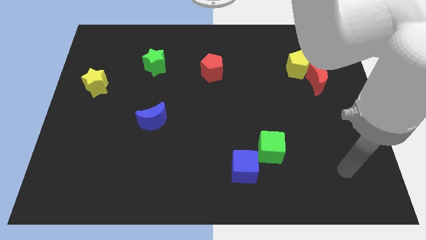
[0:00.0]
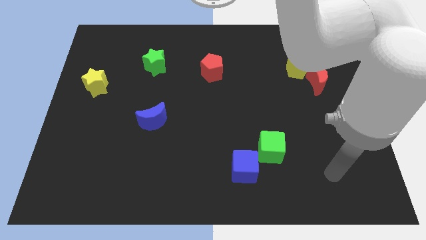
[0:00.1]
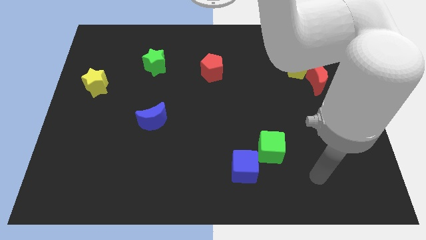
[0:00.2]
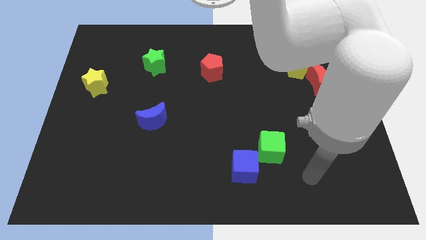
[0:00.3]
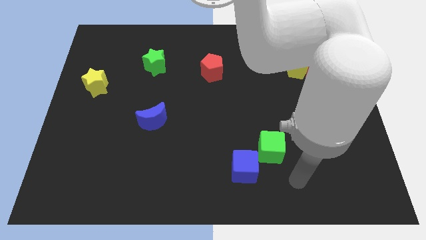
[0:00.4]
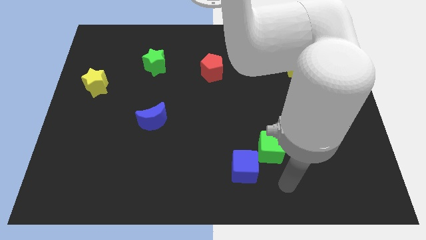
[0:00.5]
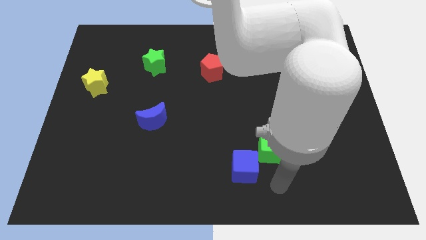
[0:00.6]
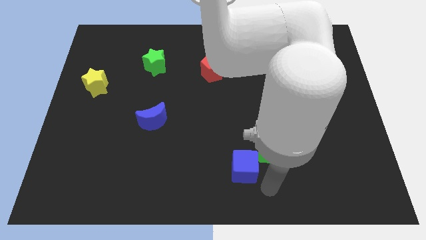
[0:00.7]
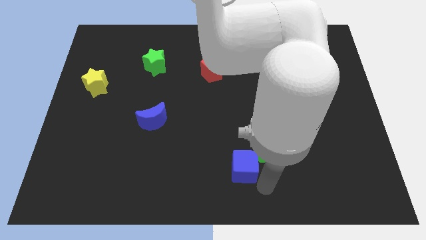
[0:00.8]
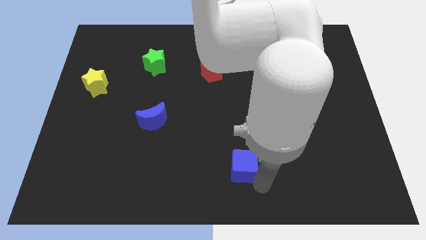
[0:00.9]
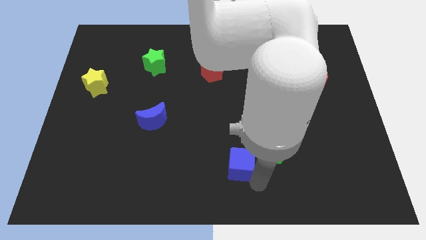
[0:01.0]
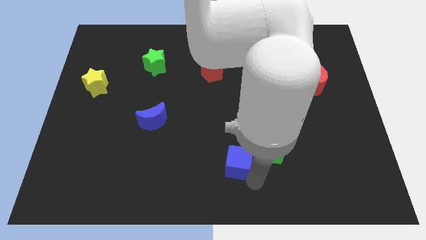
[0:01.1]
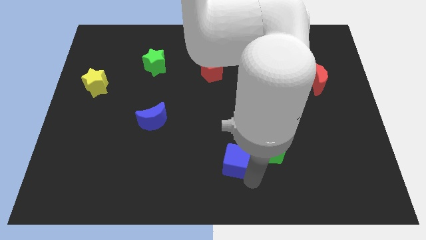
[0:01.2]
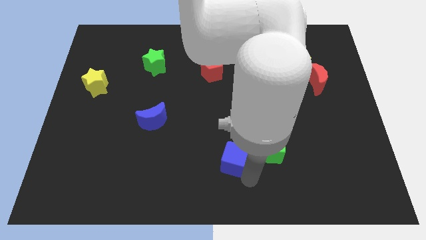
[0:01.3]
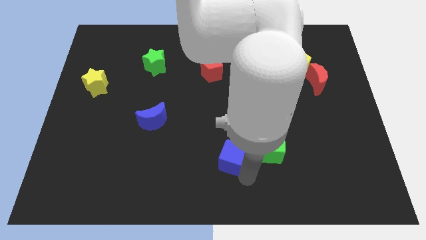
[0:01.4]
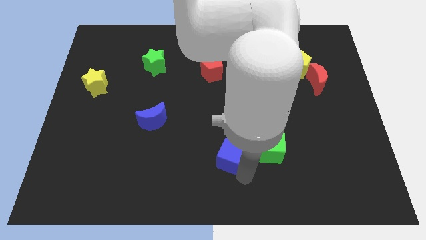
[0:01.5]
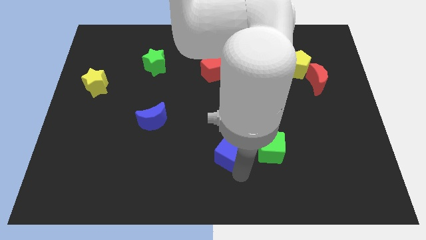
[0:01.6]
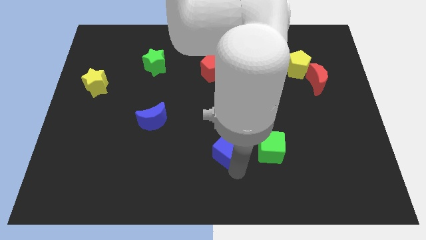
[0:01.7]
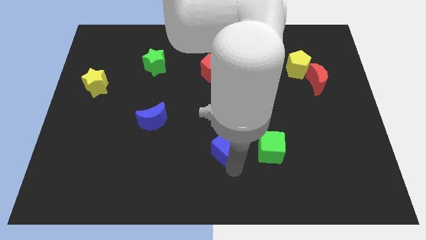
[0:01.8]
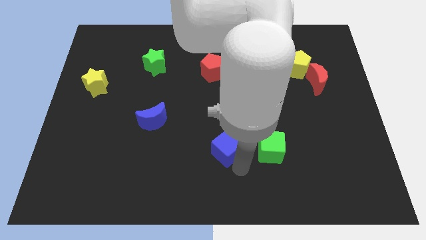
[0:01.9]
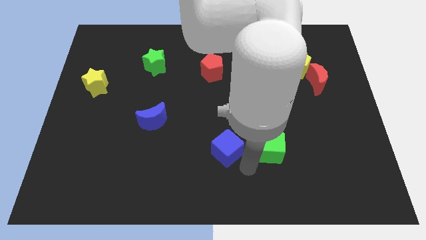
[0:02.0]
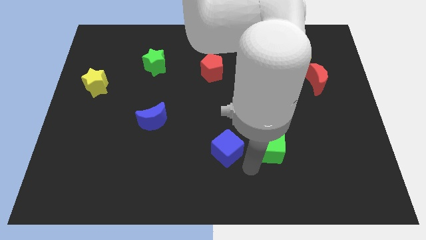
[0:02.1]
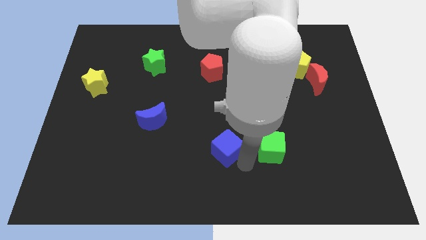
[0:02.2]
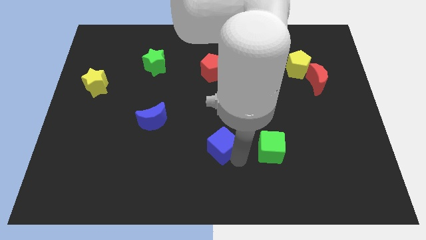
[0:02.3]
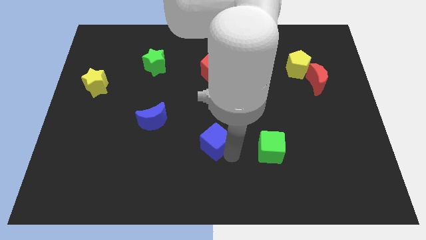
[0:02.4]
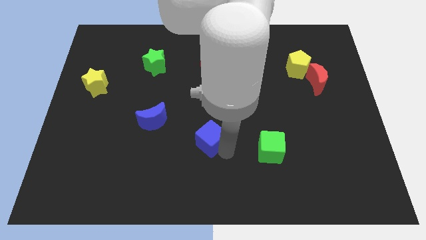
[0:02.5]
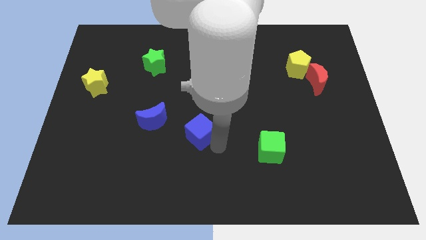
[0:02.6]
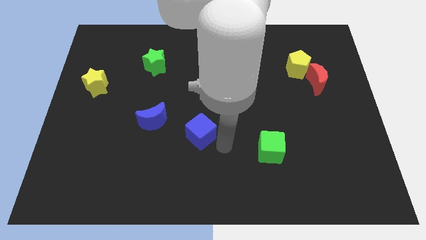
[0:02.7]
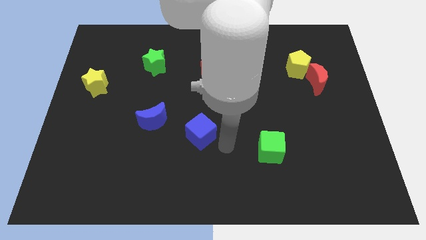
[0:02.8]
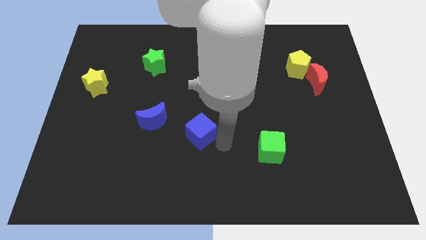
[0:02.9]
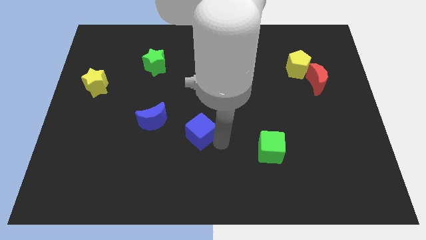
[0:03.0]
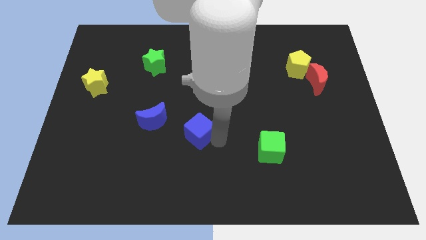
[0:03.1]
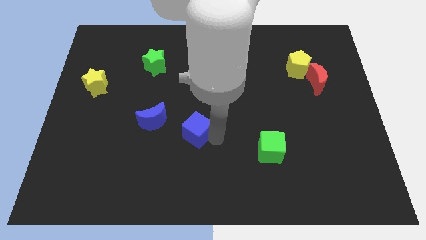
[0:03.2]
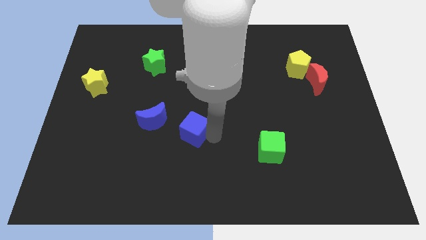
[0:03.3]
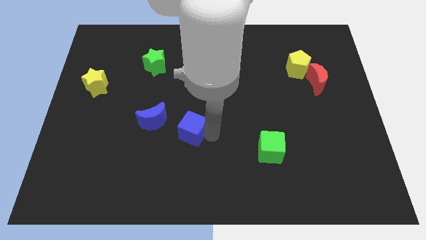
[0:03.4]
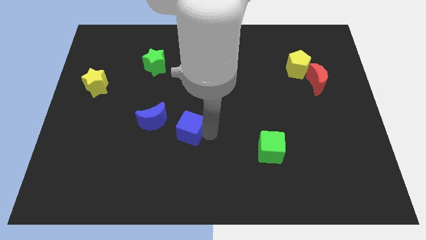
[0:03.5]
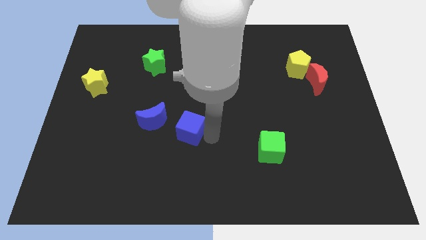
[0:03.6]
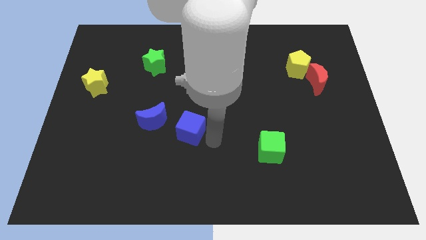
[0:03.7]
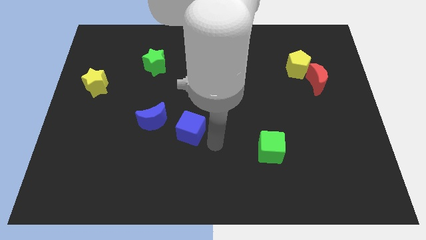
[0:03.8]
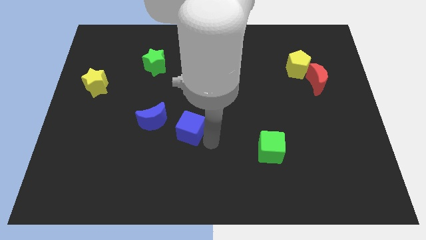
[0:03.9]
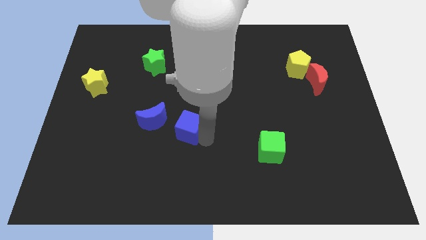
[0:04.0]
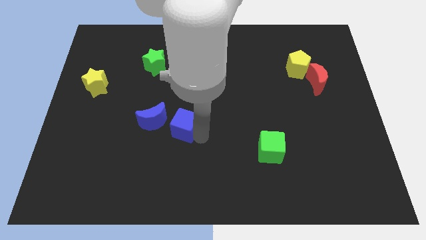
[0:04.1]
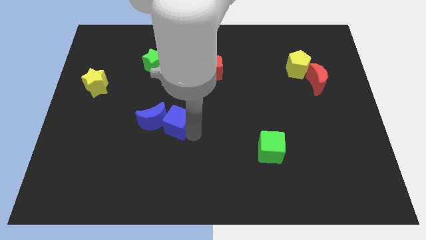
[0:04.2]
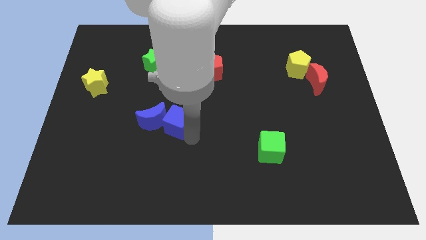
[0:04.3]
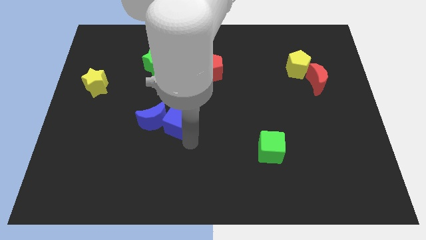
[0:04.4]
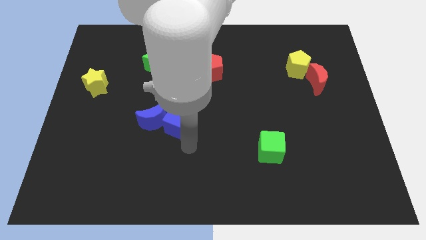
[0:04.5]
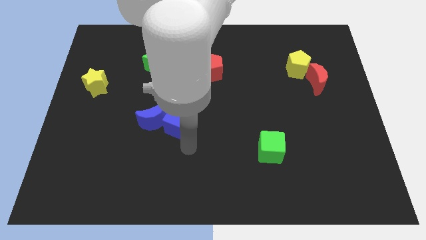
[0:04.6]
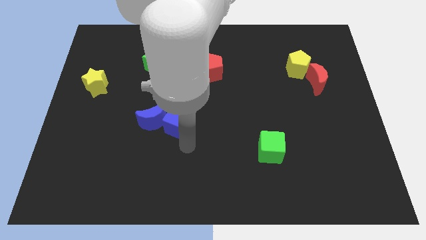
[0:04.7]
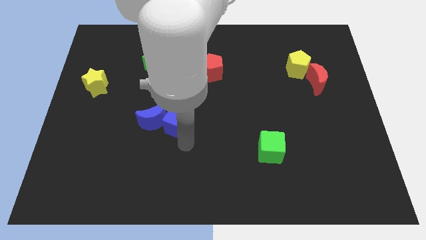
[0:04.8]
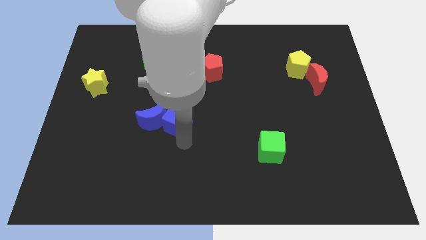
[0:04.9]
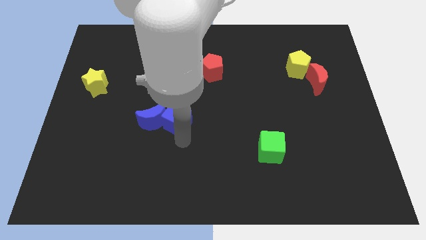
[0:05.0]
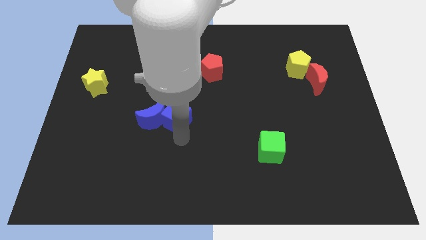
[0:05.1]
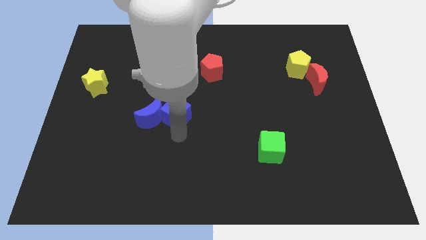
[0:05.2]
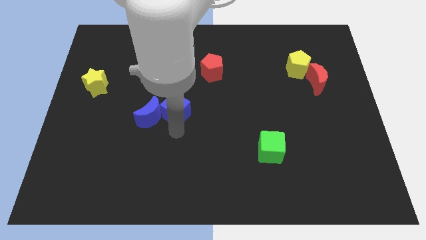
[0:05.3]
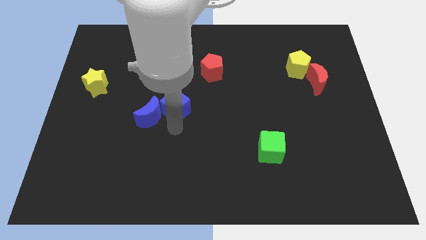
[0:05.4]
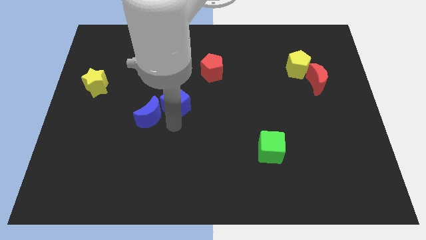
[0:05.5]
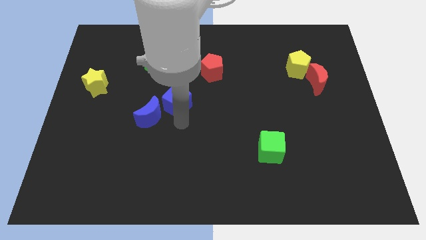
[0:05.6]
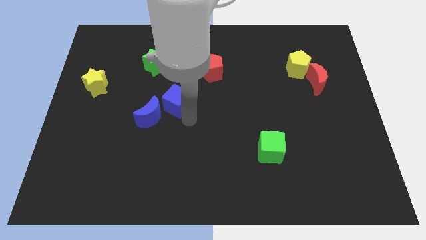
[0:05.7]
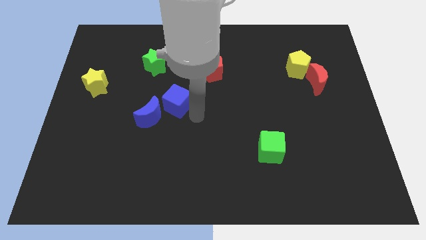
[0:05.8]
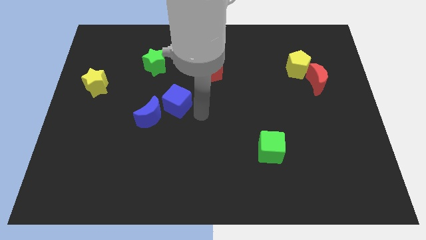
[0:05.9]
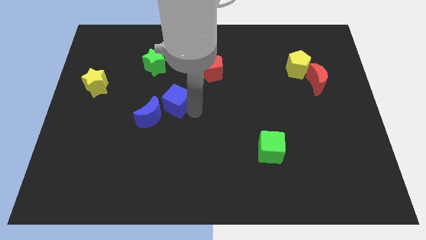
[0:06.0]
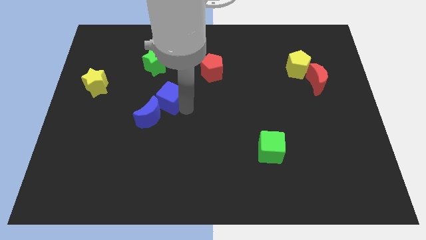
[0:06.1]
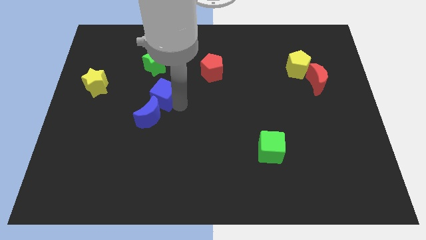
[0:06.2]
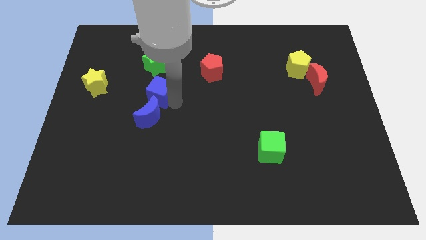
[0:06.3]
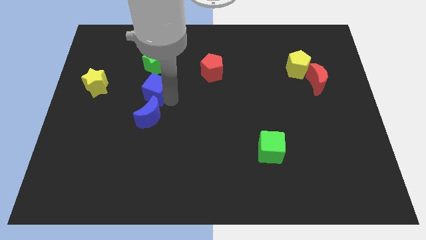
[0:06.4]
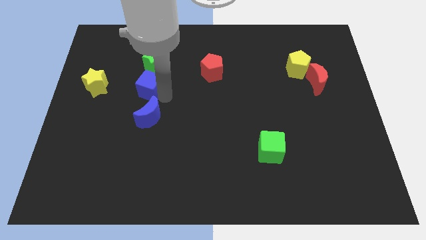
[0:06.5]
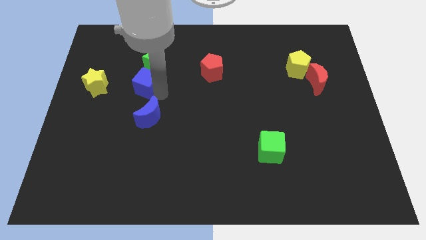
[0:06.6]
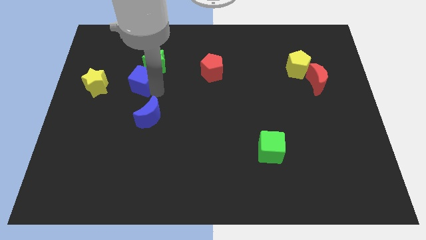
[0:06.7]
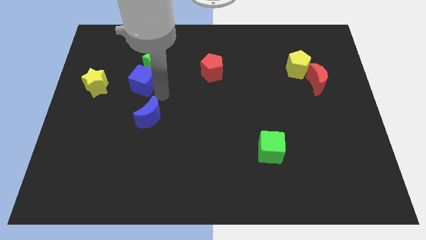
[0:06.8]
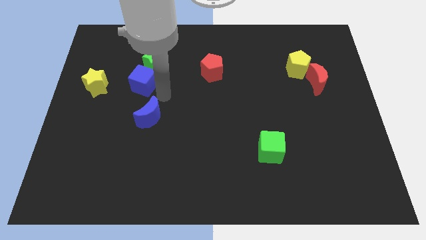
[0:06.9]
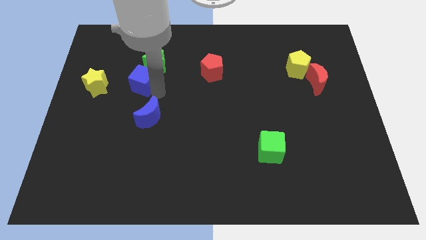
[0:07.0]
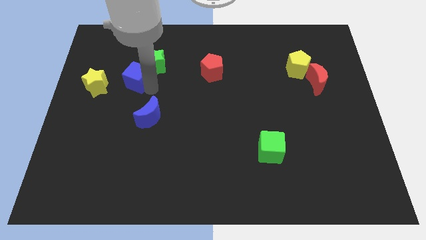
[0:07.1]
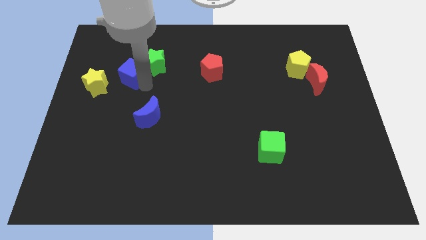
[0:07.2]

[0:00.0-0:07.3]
put the blue cube diagonally up and to the right of the yellow star
